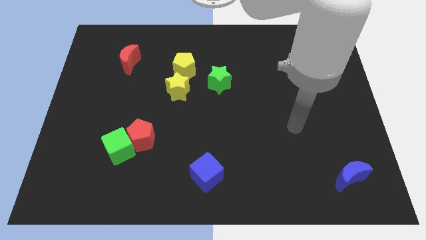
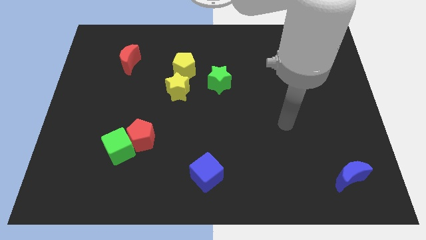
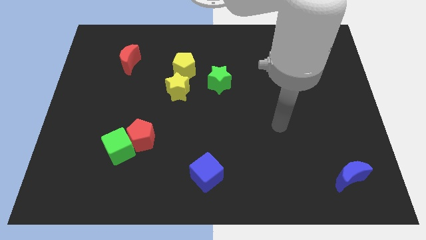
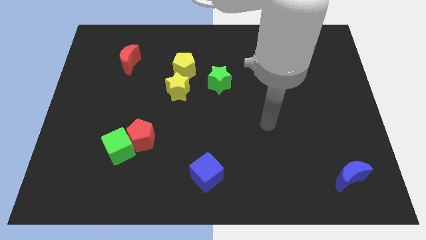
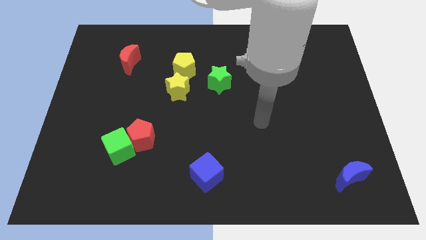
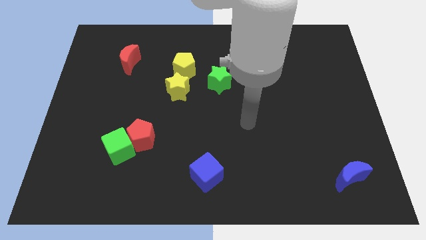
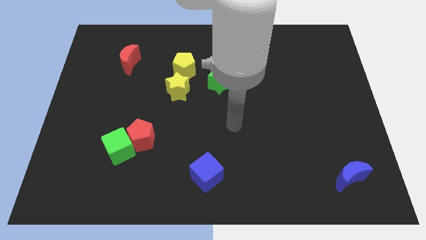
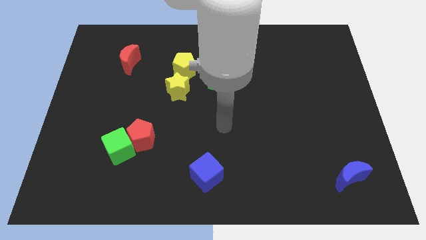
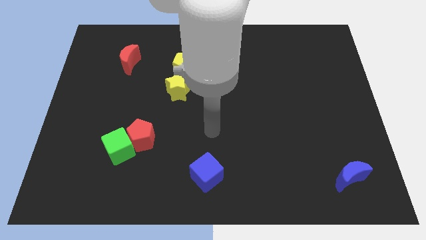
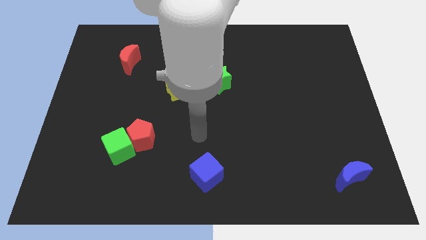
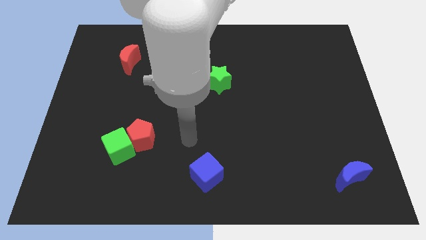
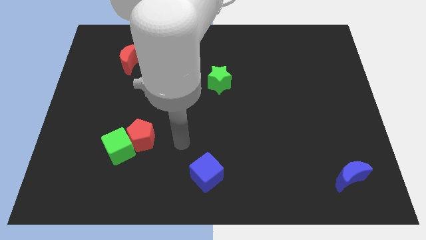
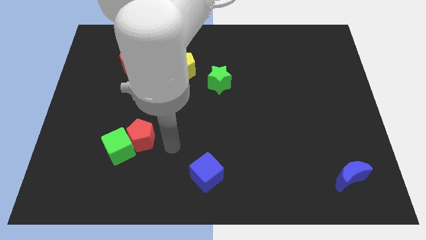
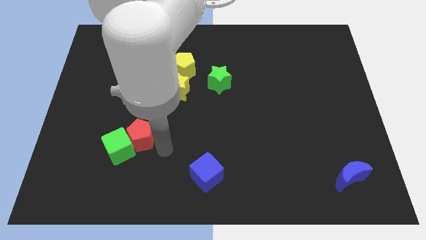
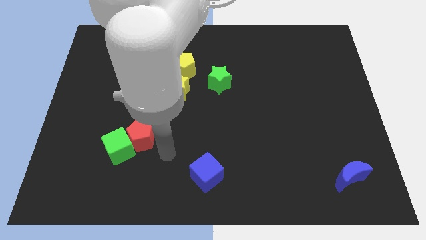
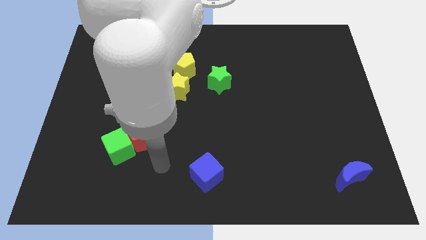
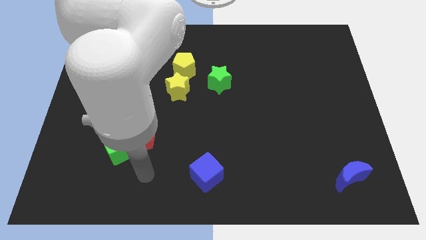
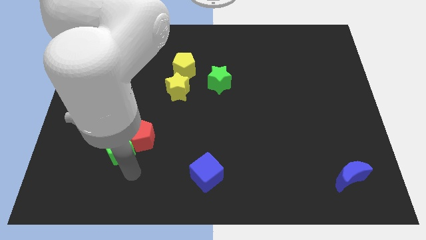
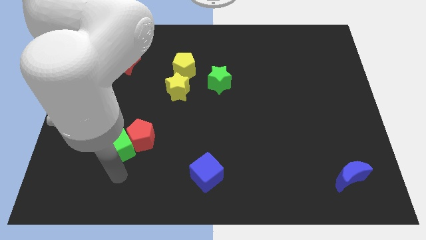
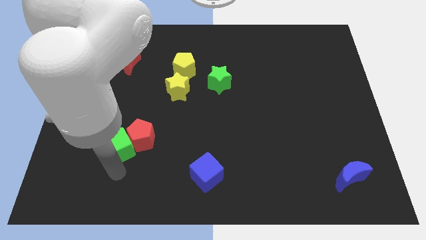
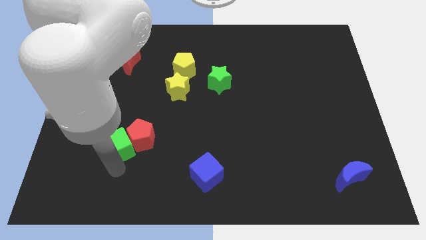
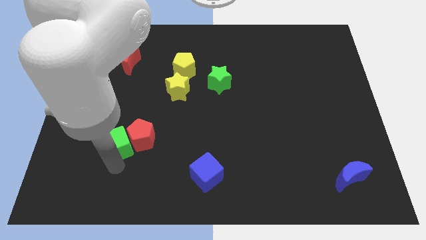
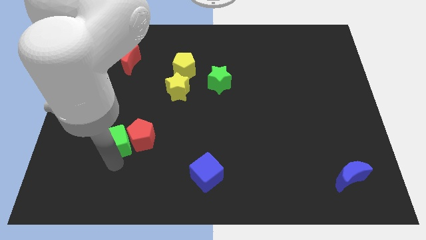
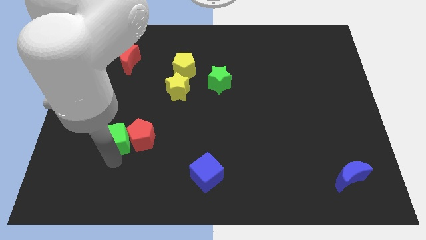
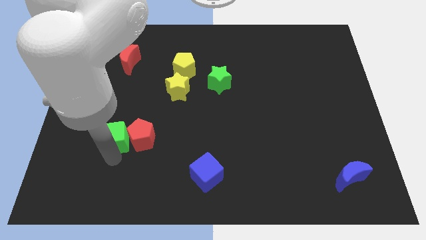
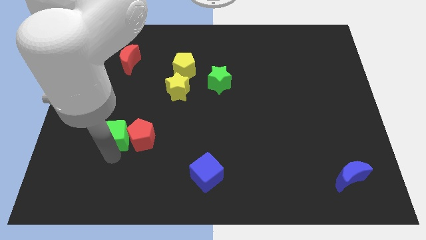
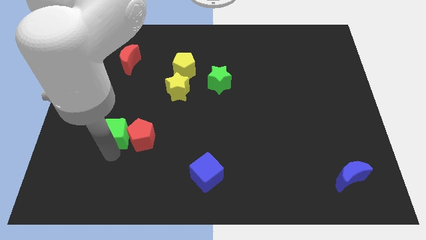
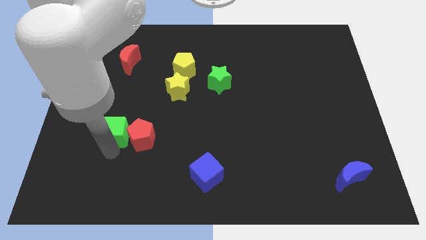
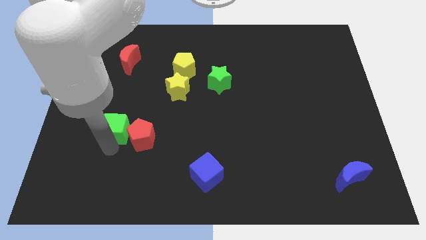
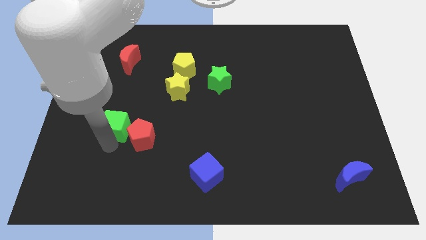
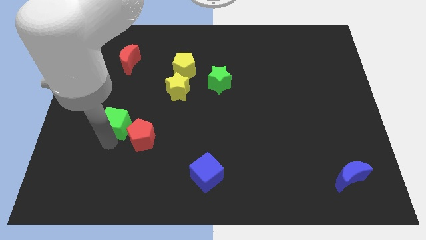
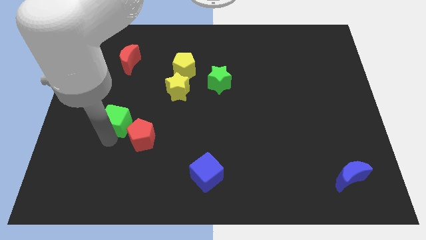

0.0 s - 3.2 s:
slightly slide the green cube up

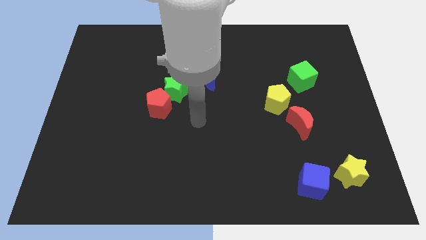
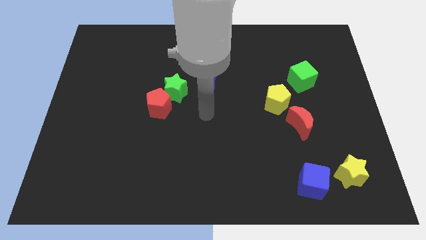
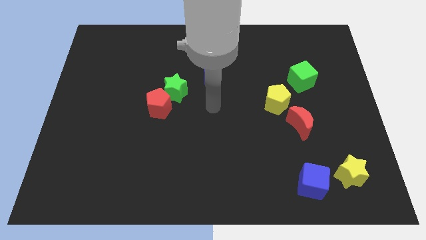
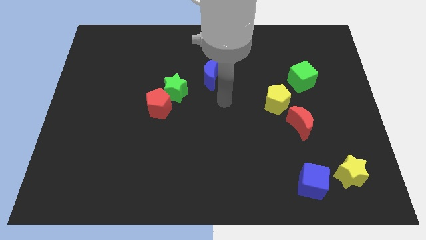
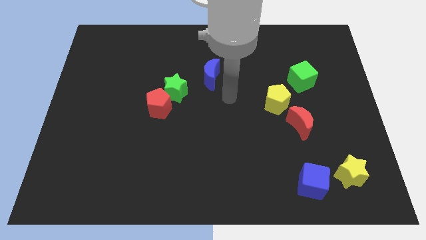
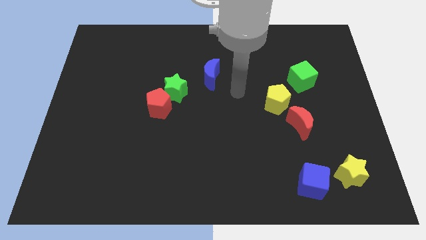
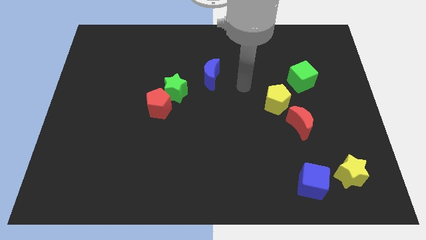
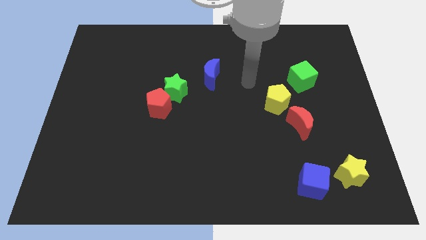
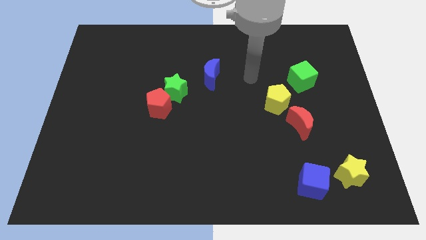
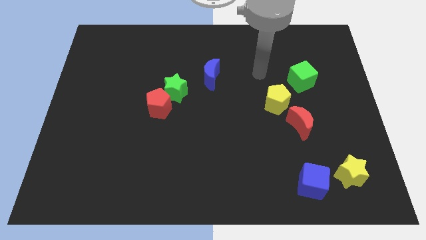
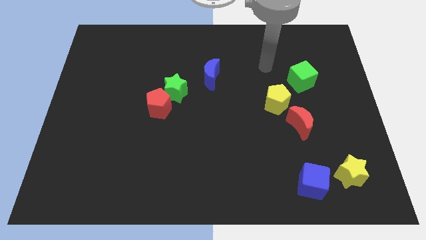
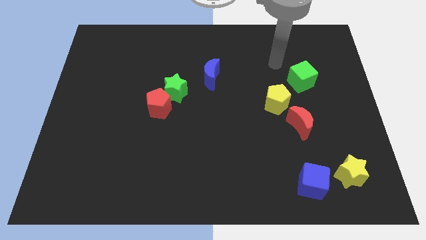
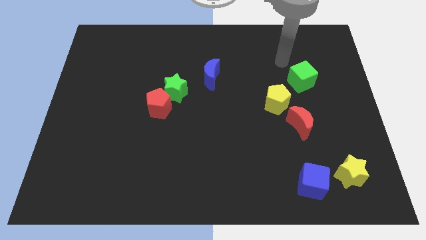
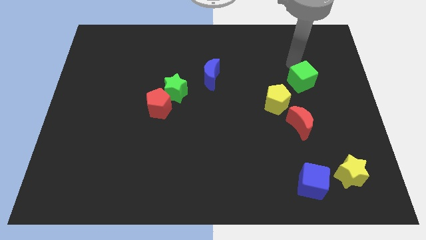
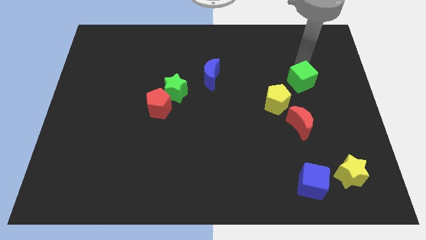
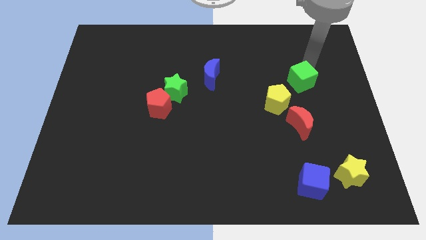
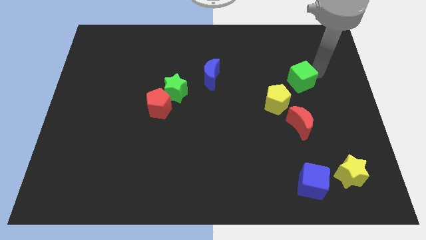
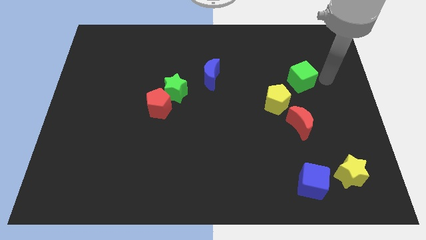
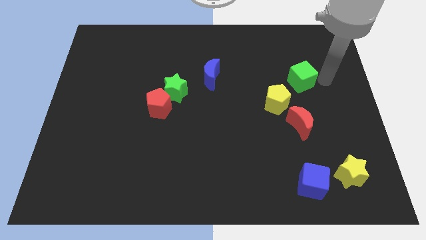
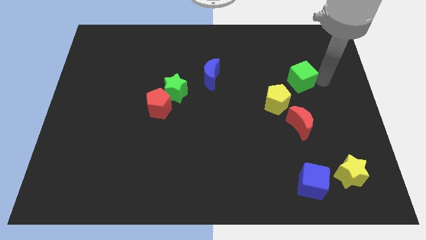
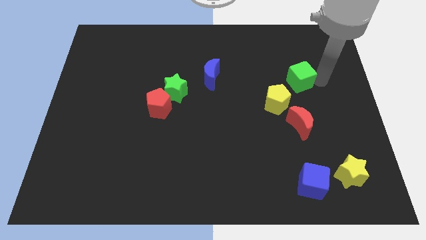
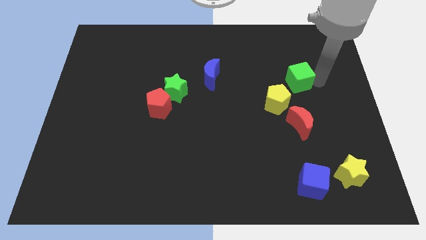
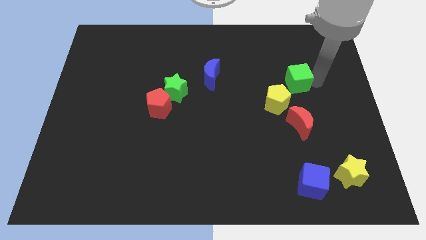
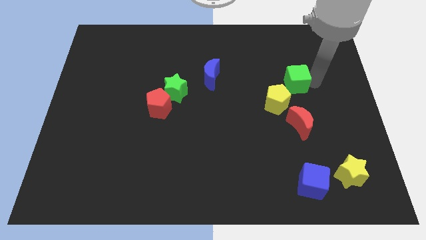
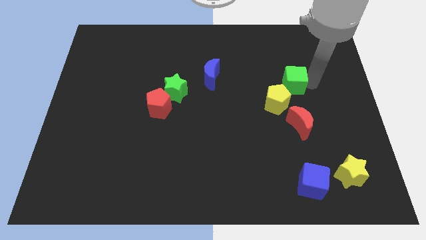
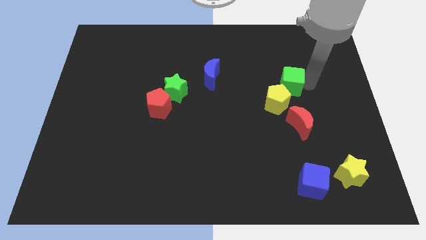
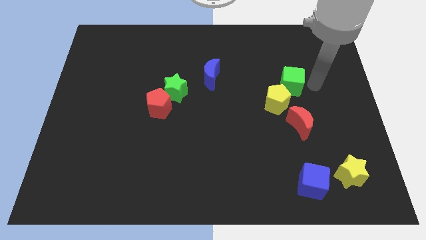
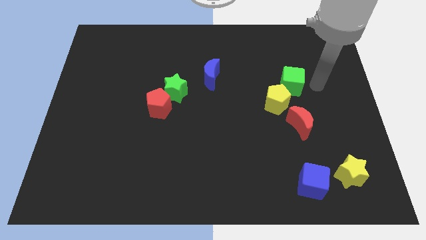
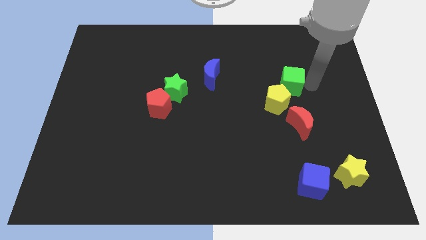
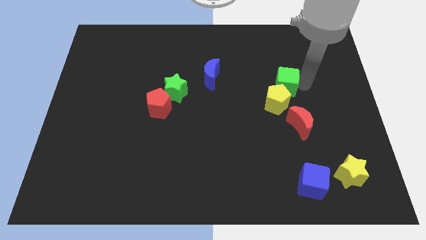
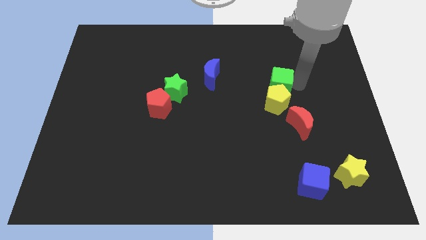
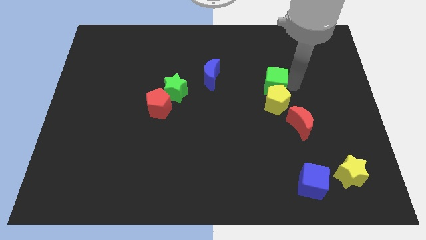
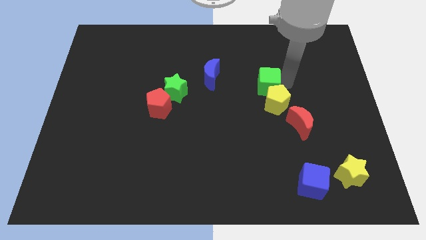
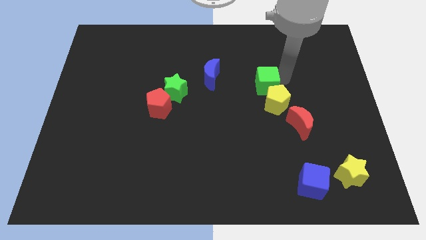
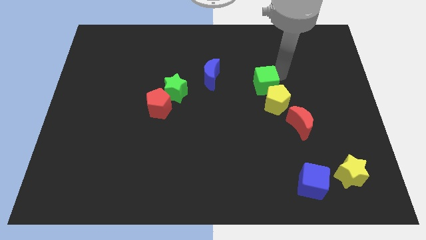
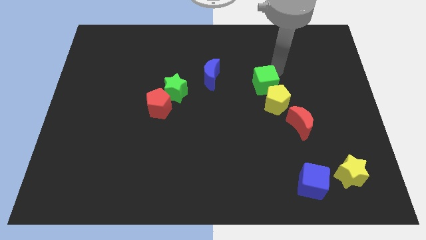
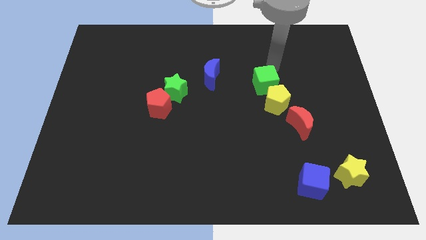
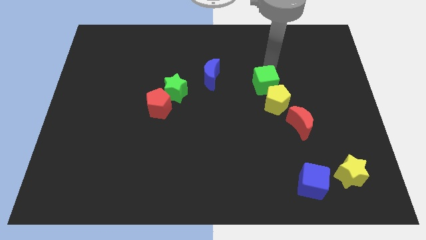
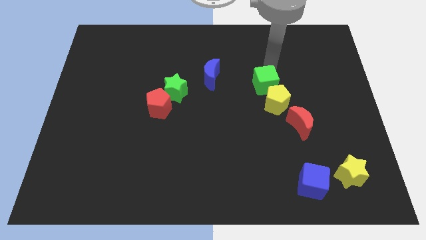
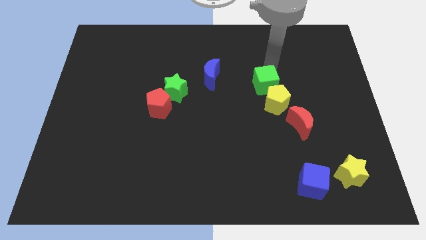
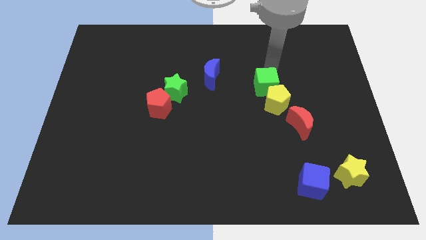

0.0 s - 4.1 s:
slightly slide the green cube diagonally down and left

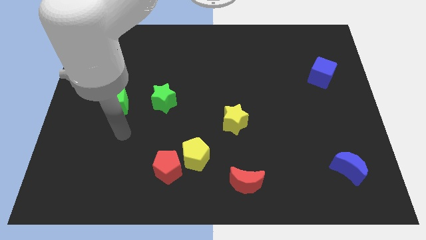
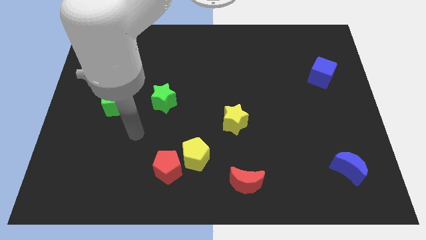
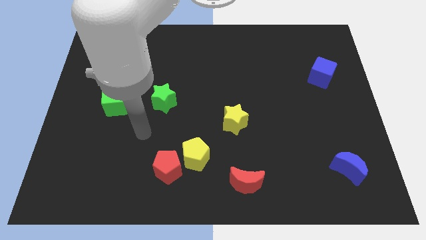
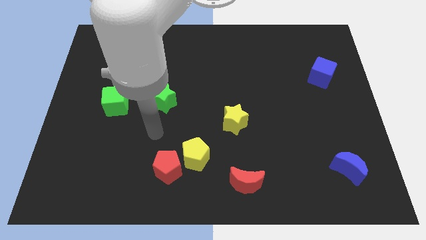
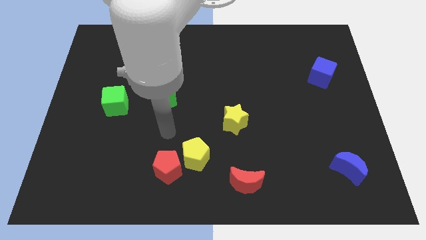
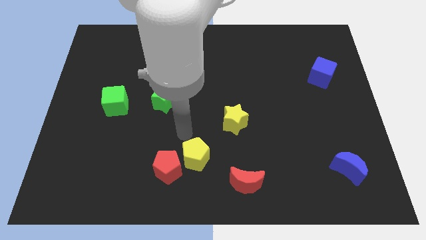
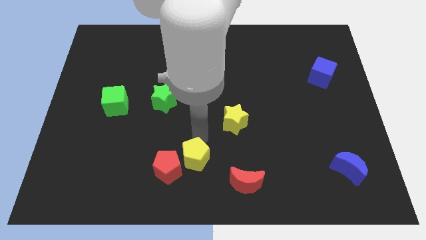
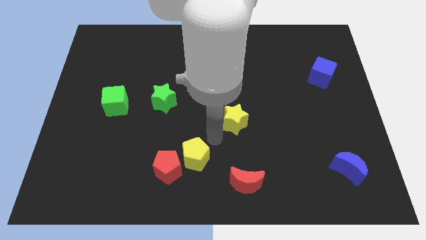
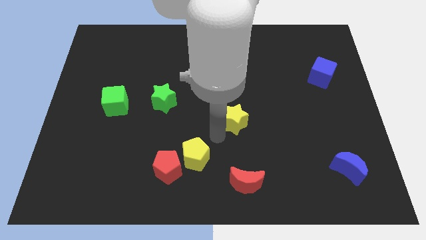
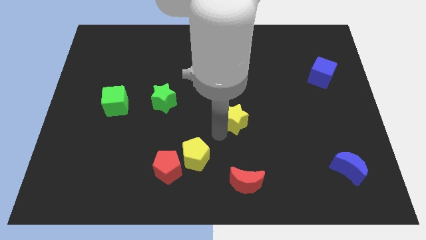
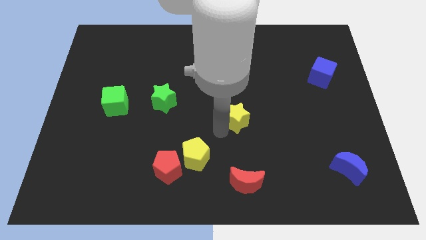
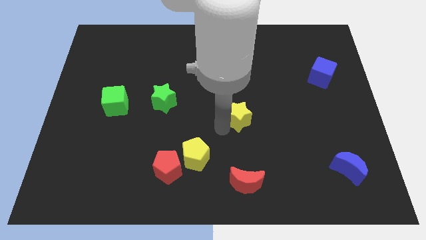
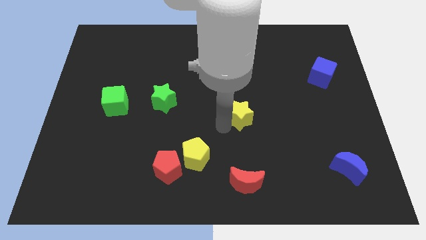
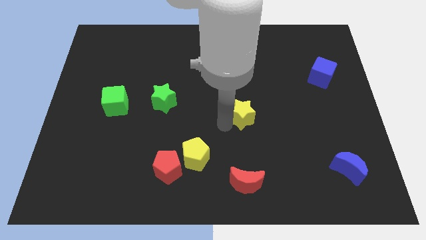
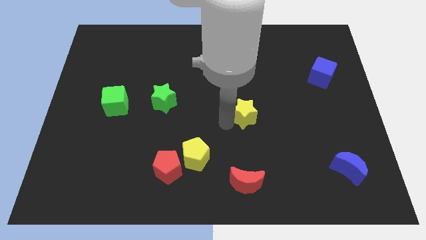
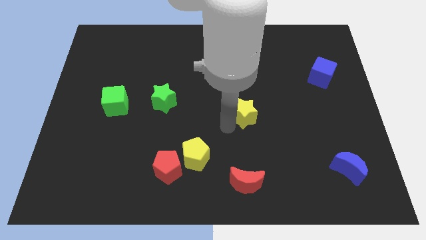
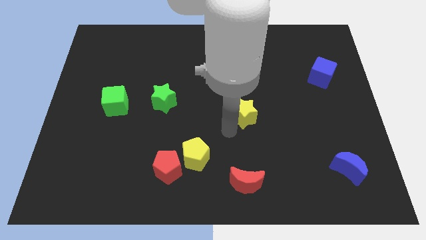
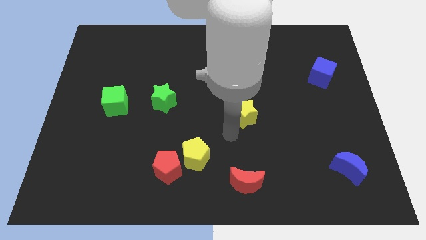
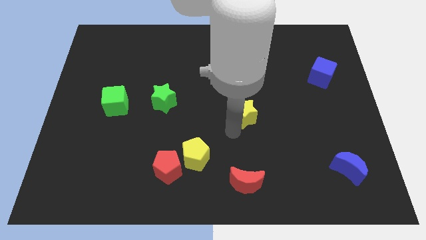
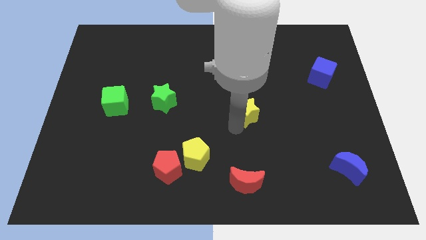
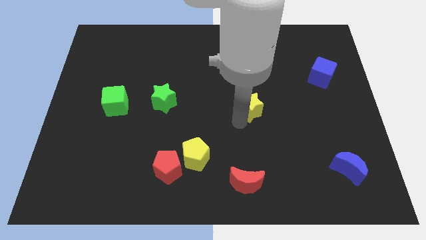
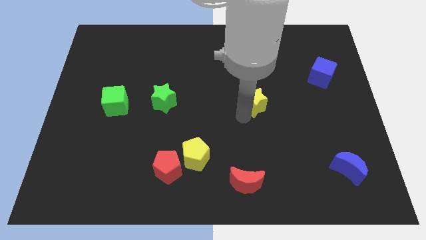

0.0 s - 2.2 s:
slightly move the yellow star upwards and right
